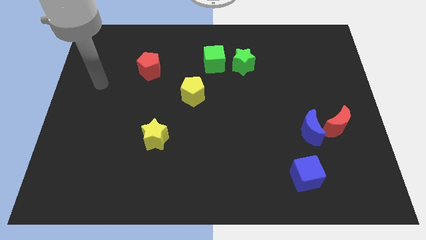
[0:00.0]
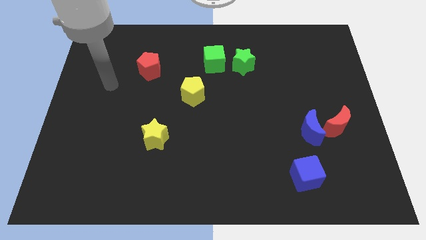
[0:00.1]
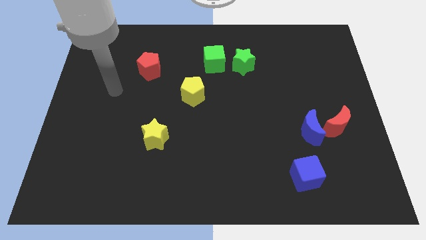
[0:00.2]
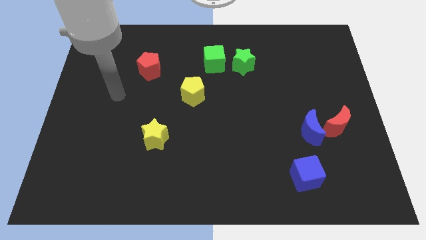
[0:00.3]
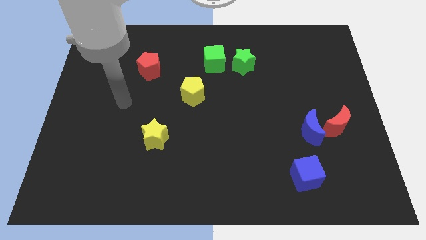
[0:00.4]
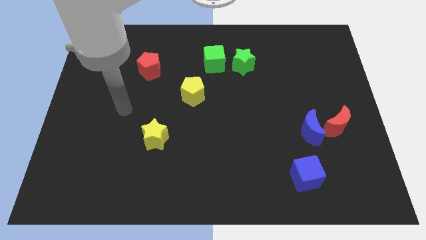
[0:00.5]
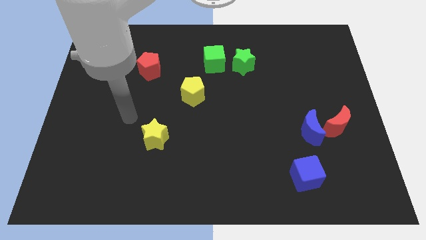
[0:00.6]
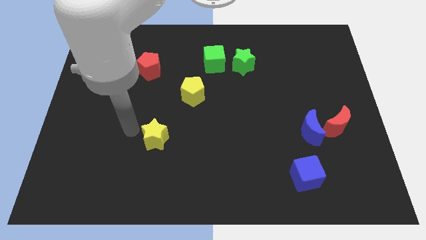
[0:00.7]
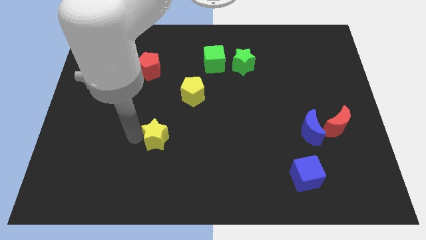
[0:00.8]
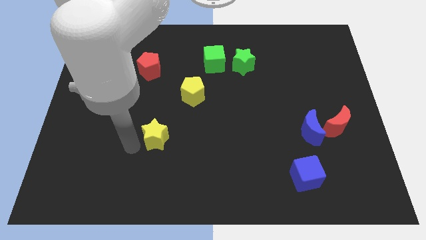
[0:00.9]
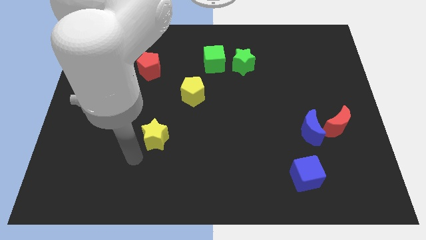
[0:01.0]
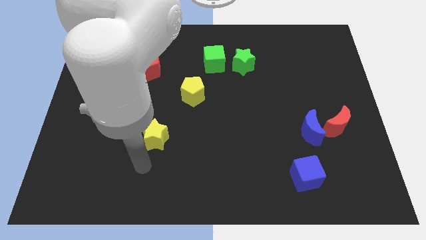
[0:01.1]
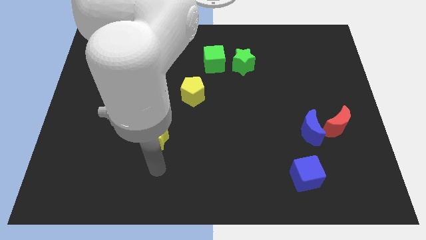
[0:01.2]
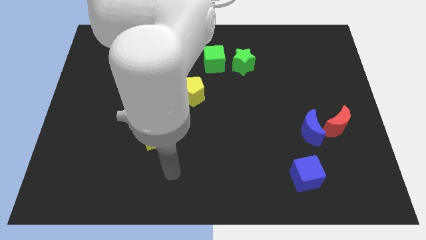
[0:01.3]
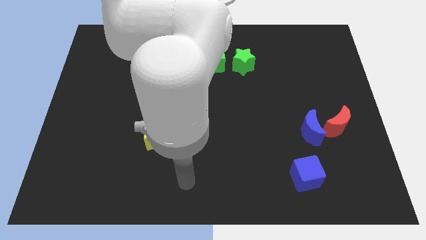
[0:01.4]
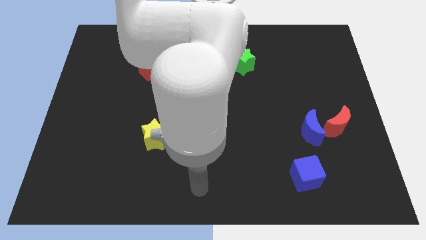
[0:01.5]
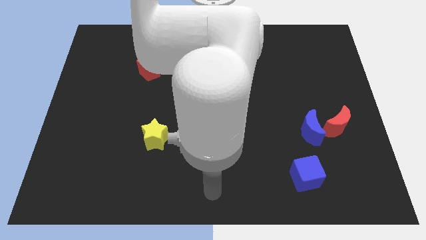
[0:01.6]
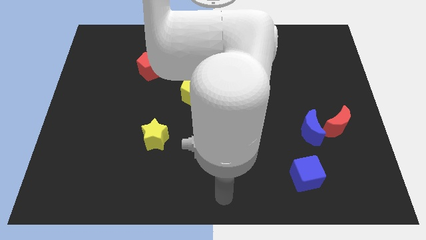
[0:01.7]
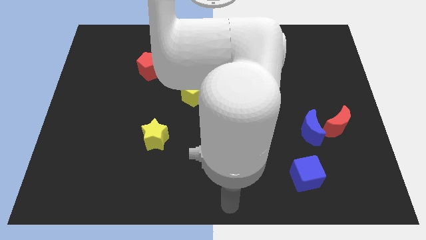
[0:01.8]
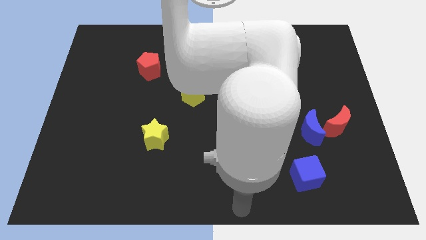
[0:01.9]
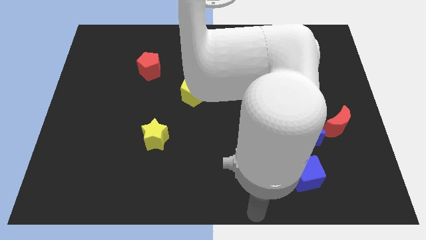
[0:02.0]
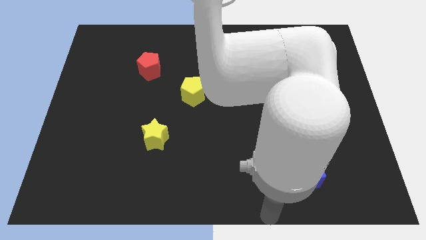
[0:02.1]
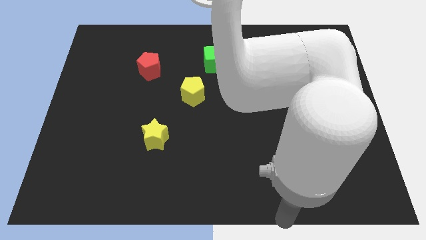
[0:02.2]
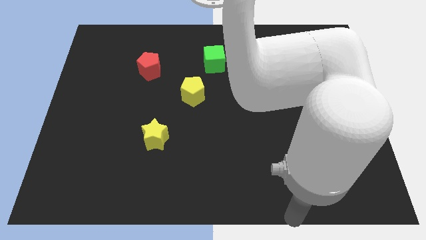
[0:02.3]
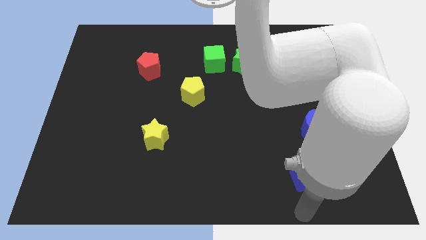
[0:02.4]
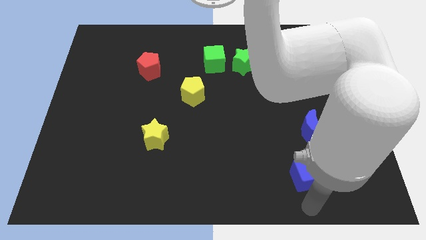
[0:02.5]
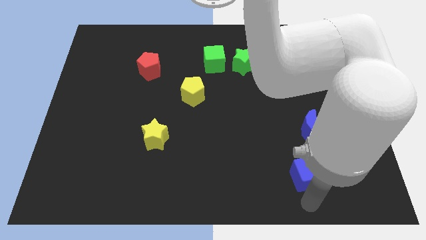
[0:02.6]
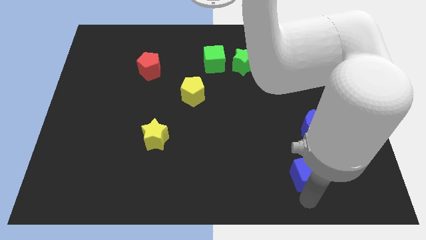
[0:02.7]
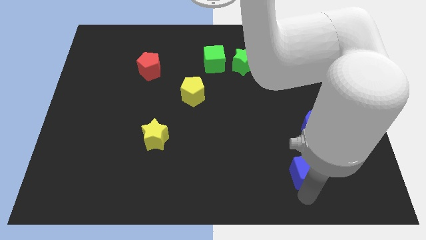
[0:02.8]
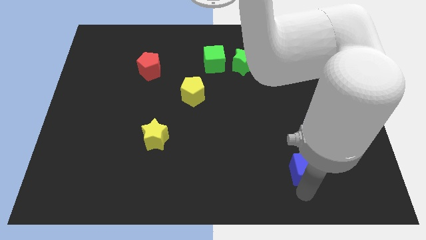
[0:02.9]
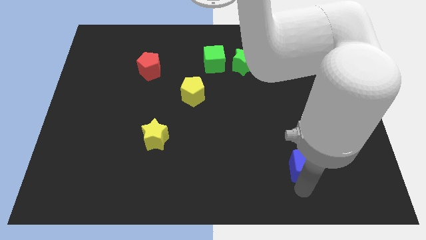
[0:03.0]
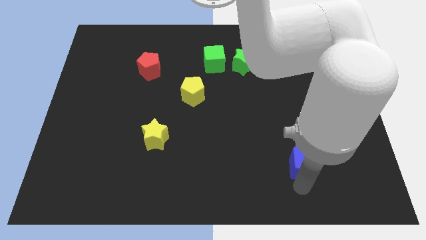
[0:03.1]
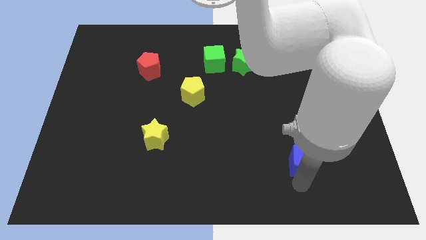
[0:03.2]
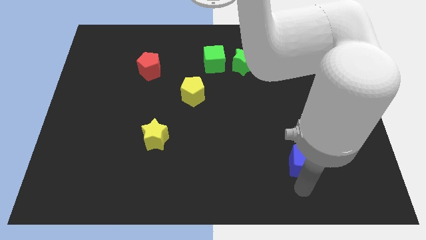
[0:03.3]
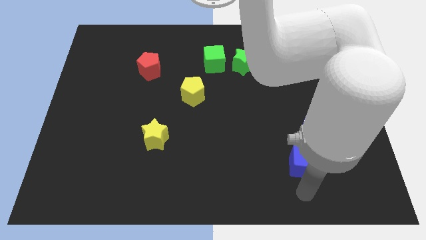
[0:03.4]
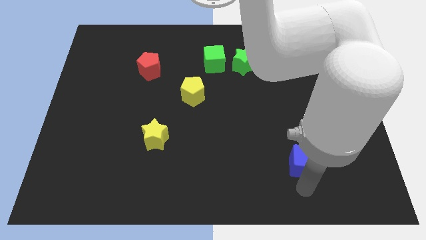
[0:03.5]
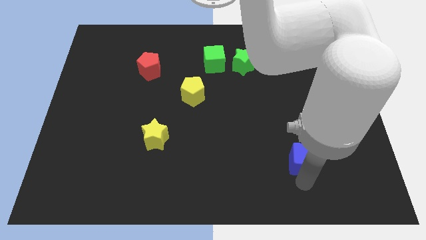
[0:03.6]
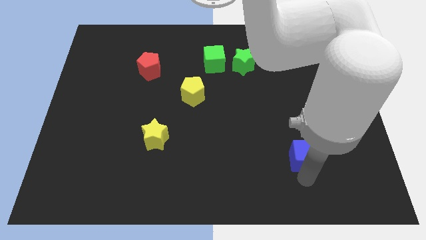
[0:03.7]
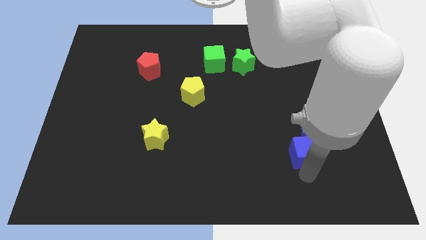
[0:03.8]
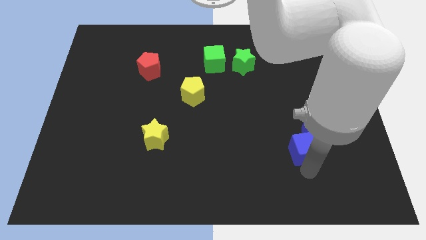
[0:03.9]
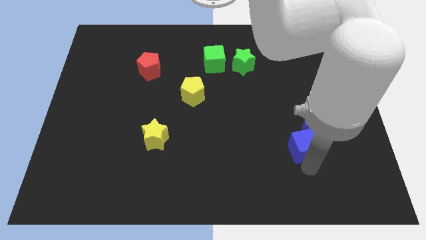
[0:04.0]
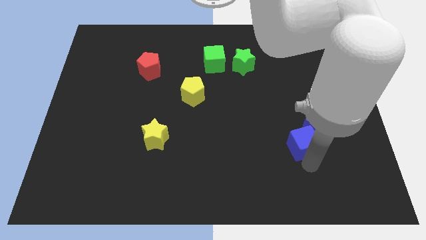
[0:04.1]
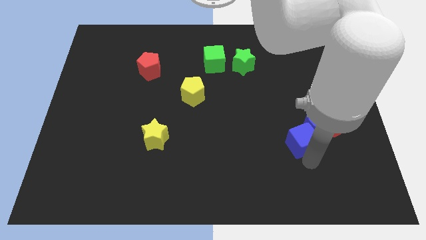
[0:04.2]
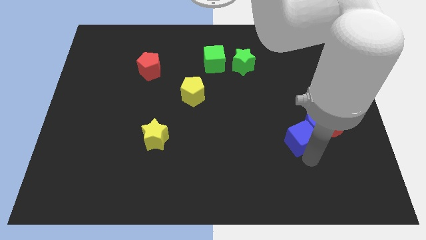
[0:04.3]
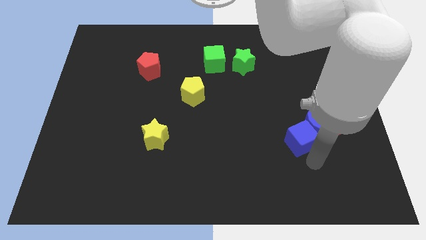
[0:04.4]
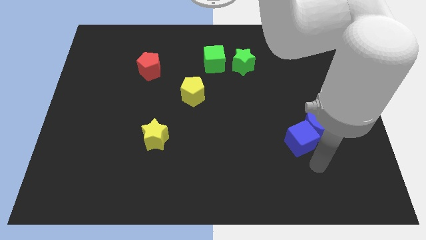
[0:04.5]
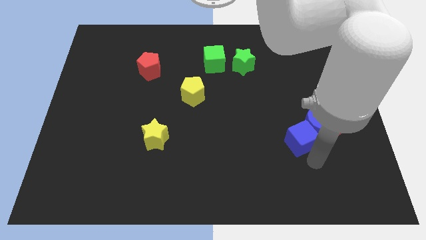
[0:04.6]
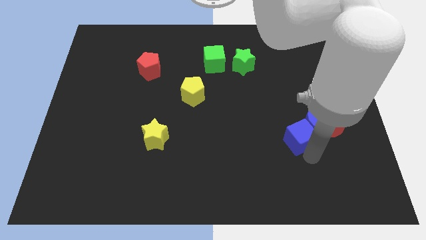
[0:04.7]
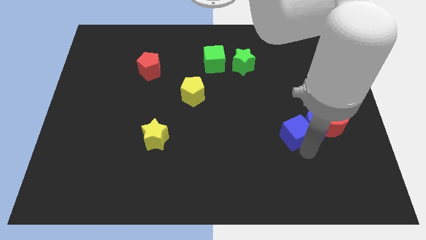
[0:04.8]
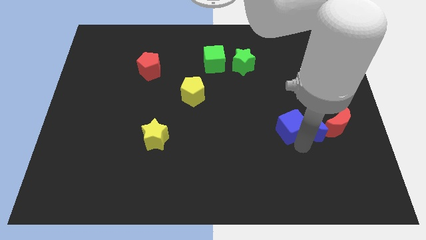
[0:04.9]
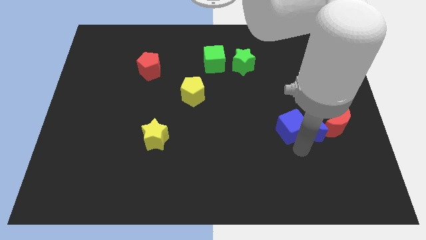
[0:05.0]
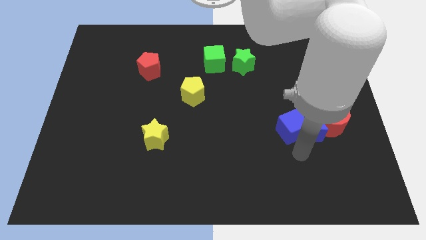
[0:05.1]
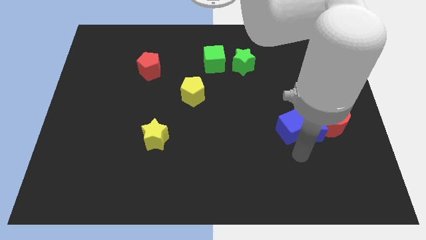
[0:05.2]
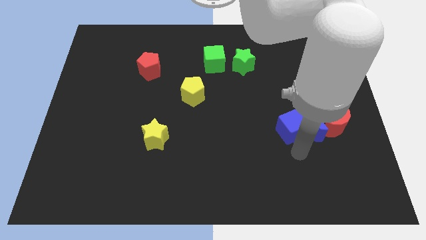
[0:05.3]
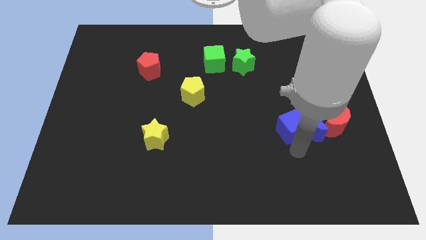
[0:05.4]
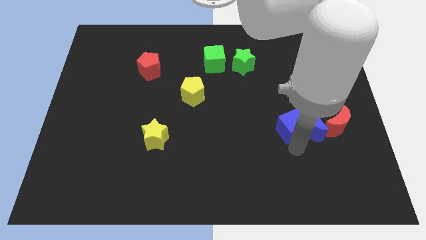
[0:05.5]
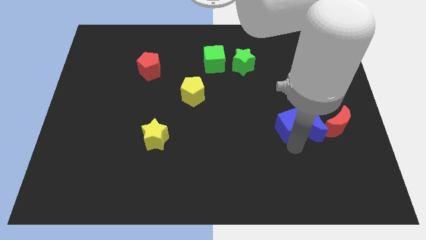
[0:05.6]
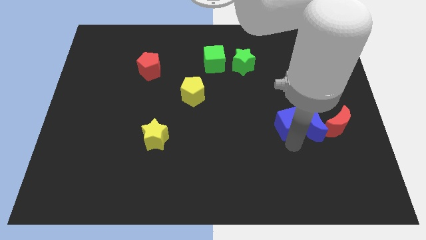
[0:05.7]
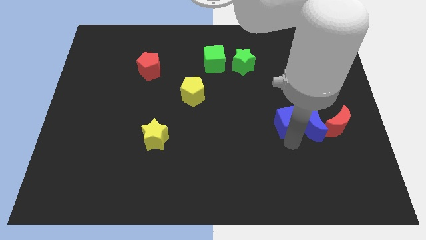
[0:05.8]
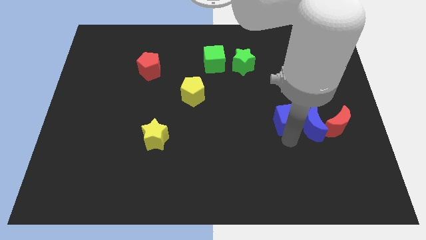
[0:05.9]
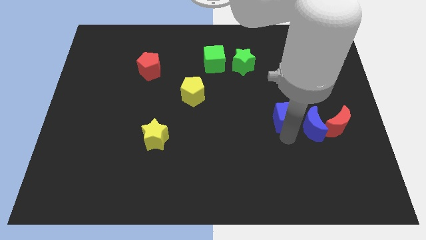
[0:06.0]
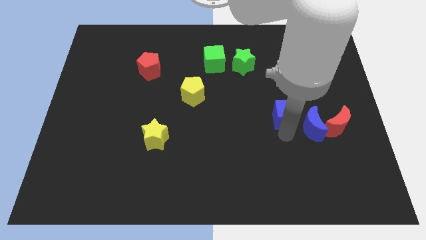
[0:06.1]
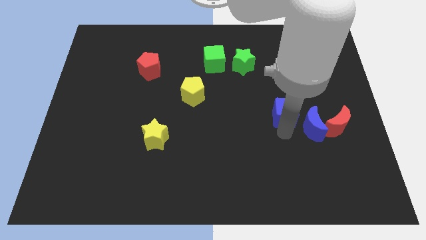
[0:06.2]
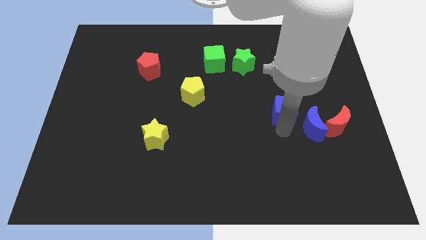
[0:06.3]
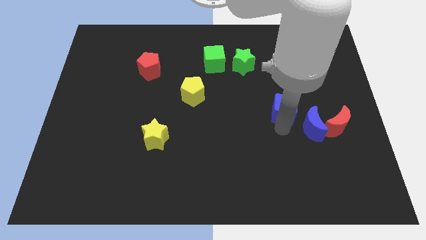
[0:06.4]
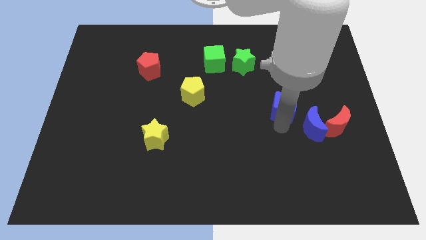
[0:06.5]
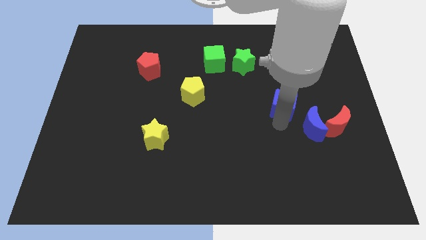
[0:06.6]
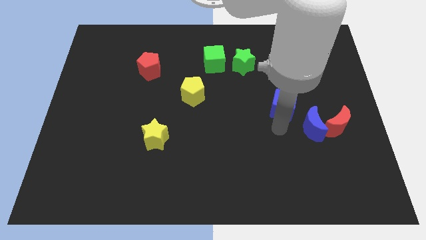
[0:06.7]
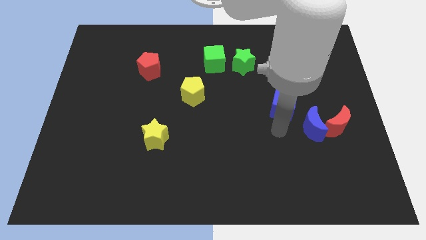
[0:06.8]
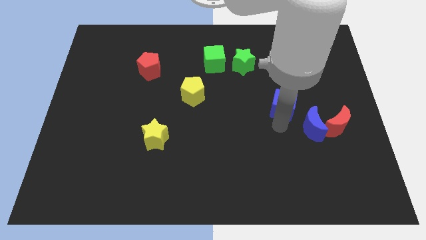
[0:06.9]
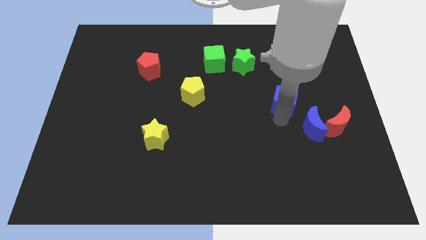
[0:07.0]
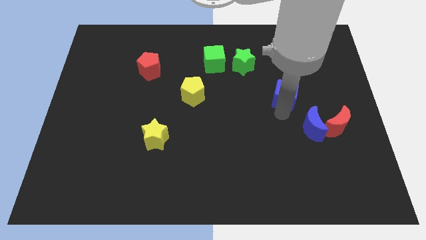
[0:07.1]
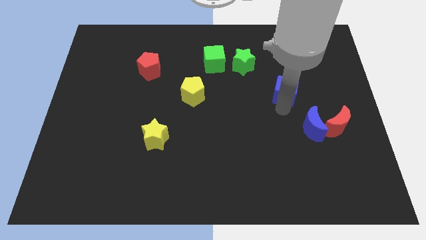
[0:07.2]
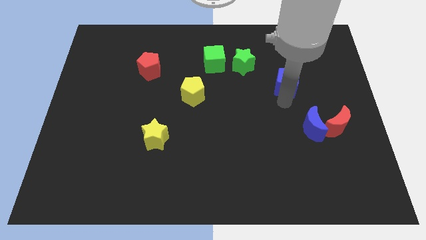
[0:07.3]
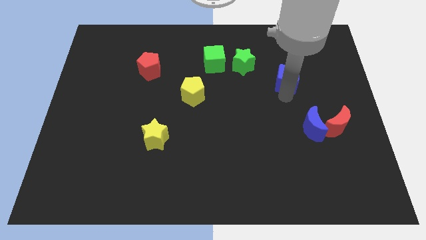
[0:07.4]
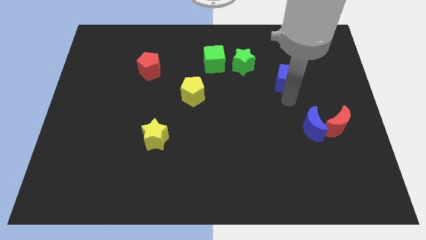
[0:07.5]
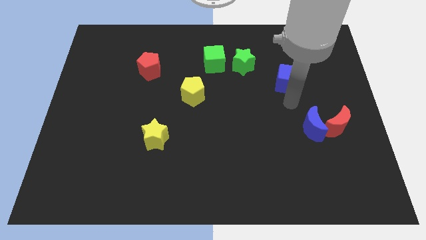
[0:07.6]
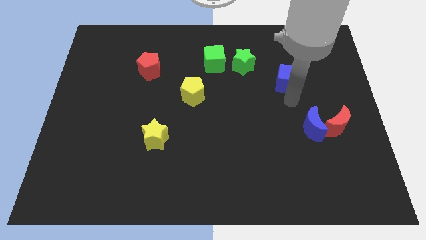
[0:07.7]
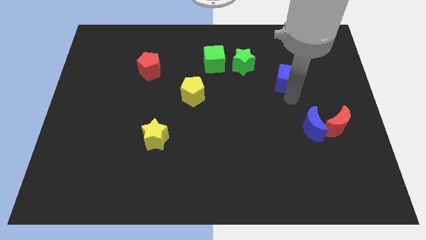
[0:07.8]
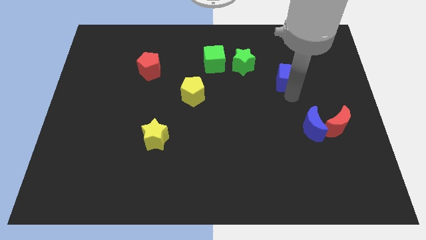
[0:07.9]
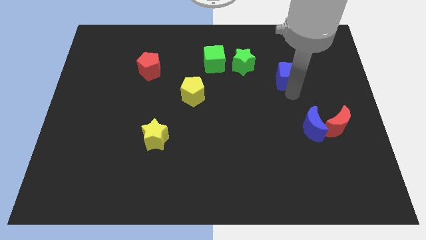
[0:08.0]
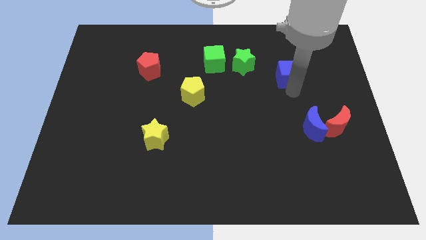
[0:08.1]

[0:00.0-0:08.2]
move the blue cube right of the green star
